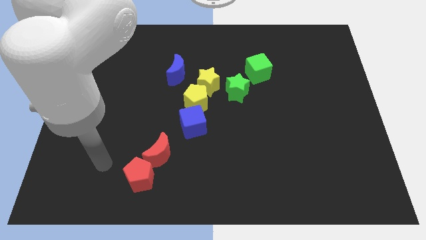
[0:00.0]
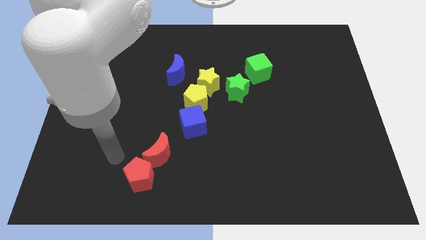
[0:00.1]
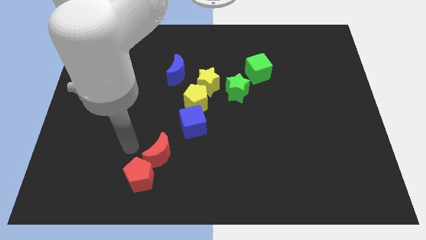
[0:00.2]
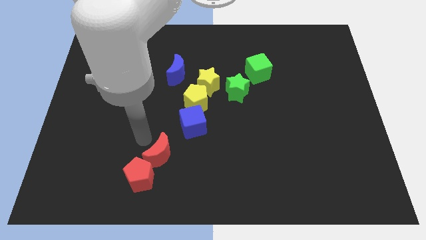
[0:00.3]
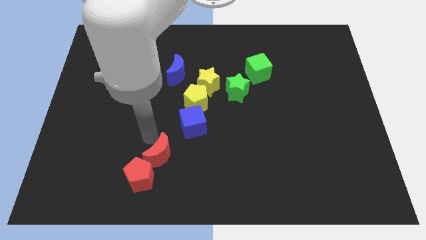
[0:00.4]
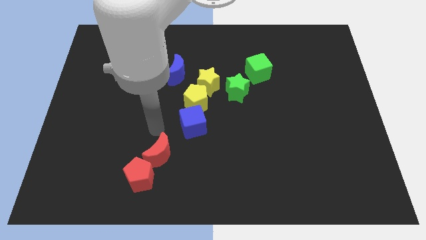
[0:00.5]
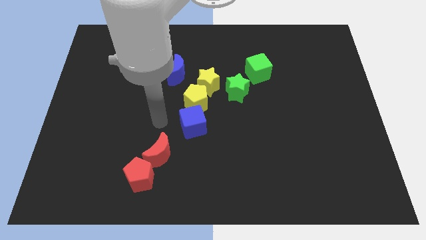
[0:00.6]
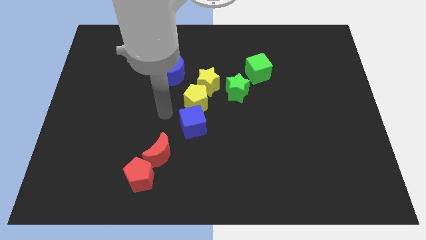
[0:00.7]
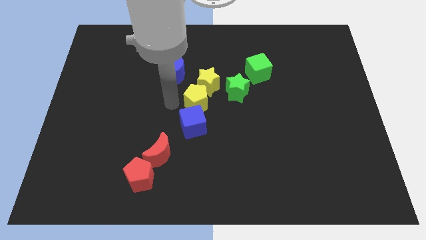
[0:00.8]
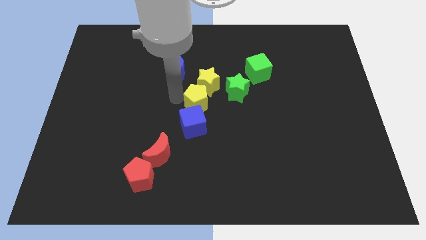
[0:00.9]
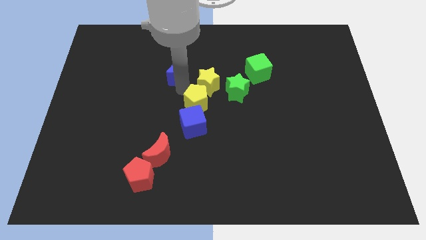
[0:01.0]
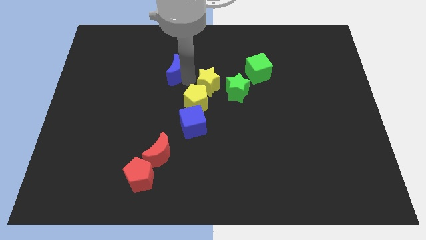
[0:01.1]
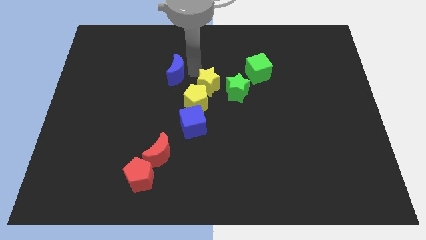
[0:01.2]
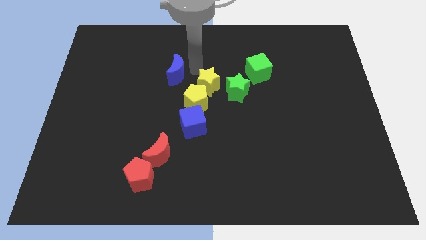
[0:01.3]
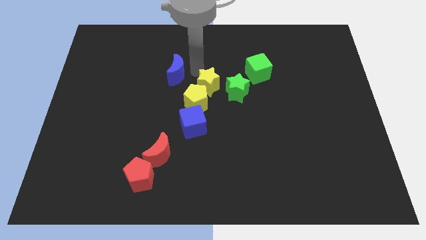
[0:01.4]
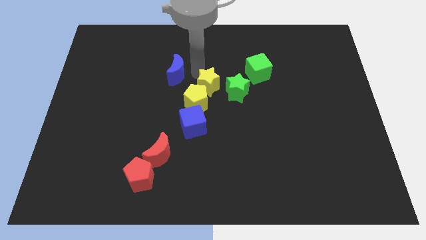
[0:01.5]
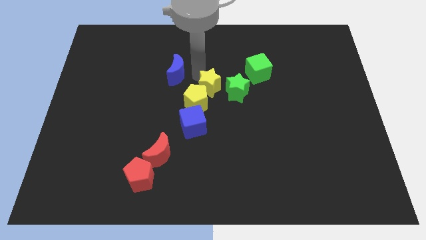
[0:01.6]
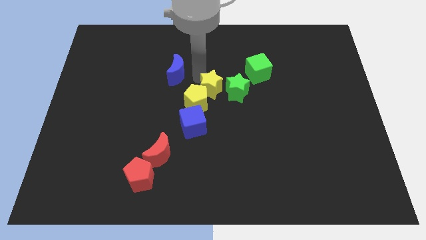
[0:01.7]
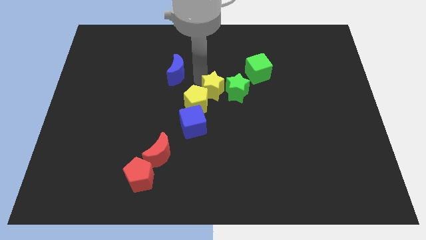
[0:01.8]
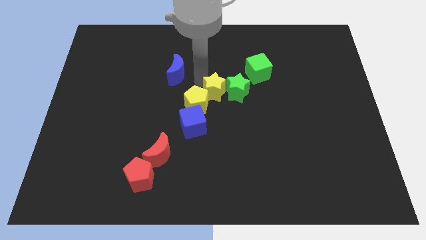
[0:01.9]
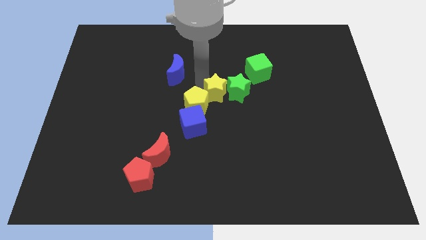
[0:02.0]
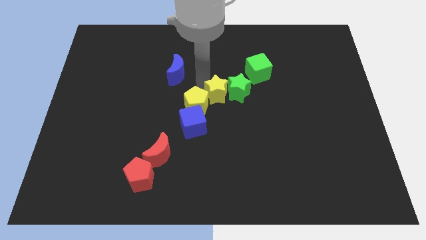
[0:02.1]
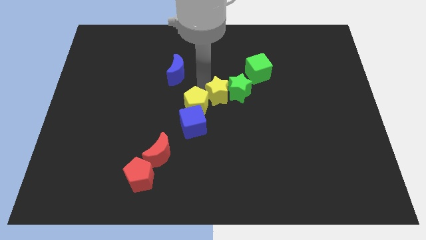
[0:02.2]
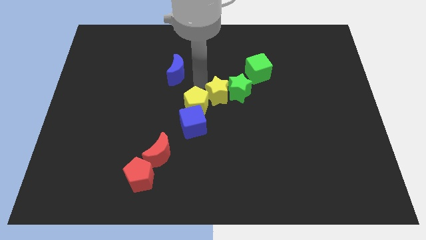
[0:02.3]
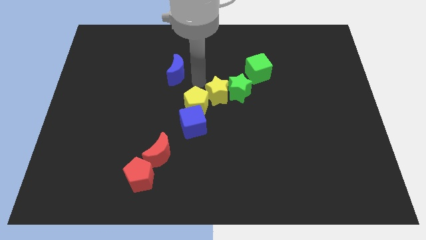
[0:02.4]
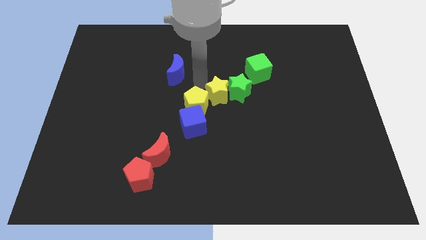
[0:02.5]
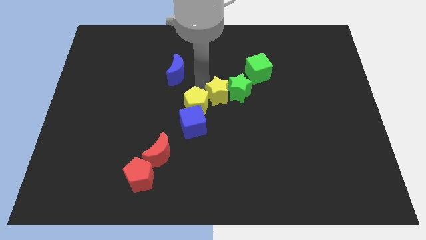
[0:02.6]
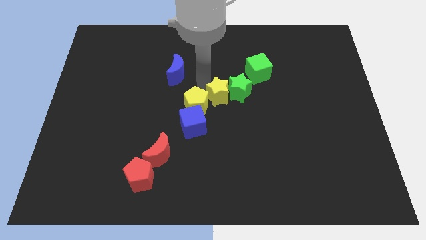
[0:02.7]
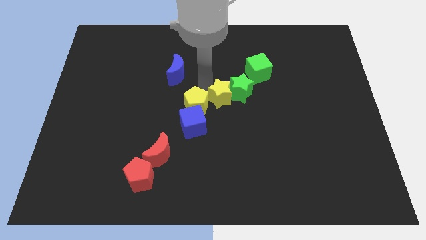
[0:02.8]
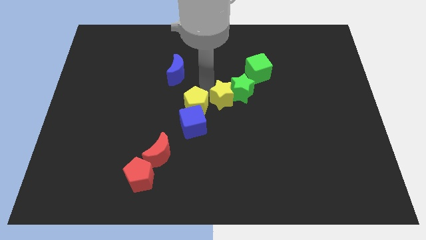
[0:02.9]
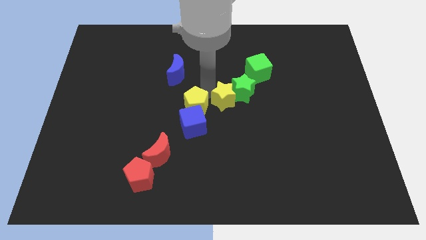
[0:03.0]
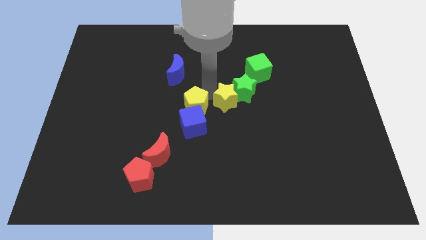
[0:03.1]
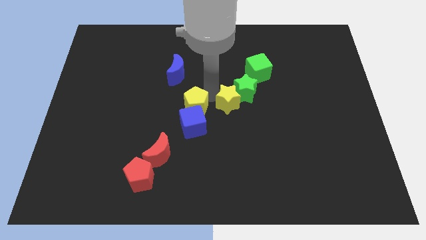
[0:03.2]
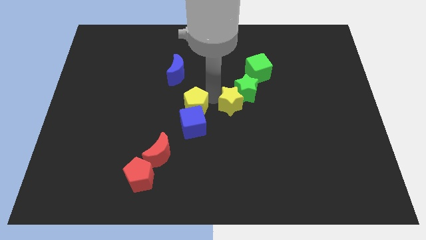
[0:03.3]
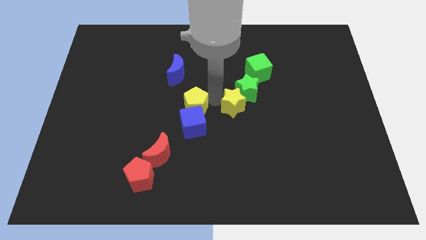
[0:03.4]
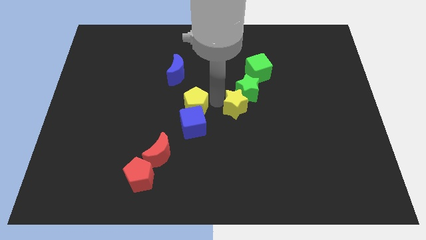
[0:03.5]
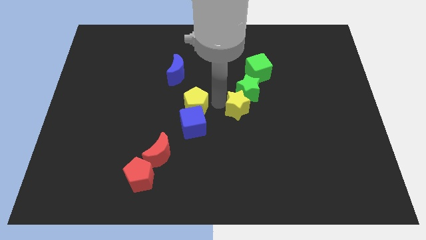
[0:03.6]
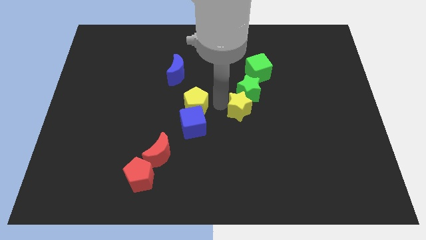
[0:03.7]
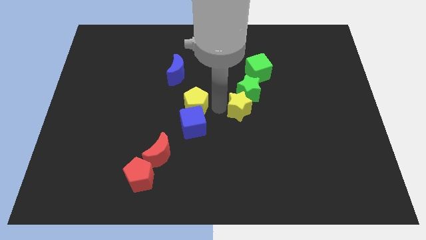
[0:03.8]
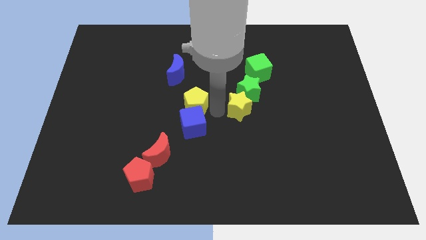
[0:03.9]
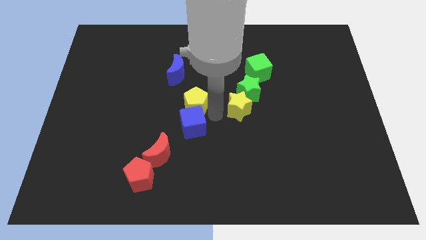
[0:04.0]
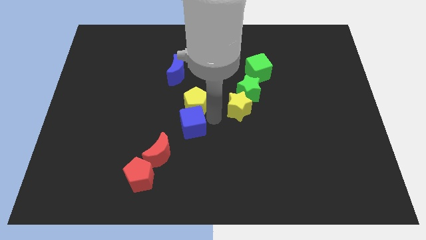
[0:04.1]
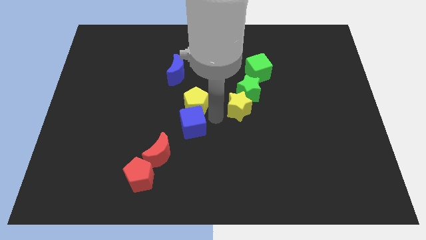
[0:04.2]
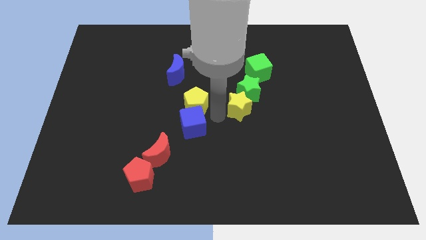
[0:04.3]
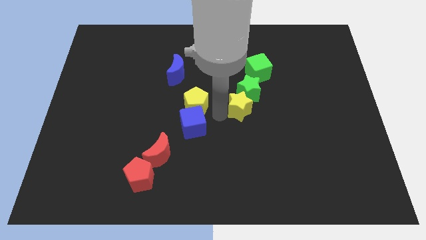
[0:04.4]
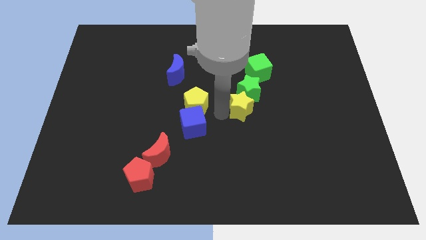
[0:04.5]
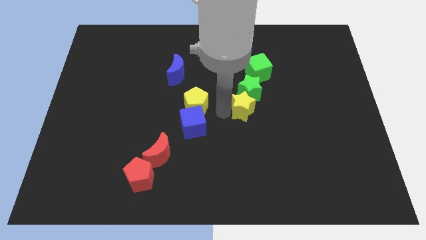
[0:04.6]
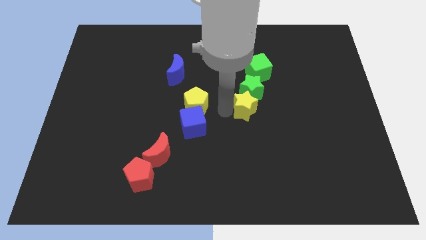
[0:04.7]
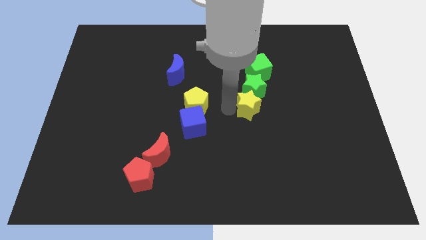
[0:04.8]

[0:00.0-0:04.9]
move the yellow star to the right a little

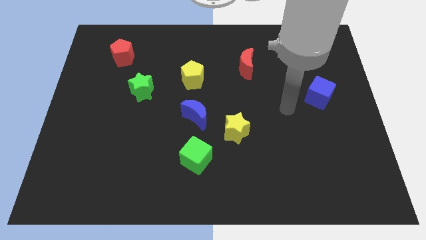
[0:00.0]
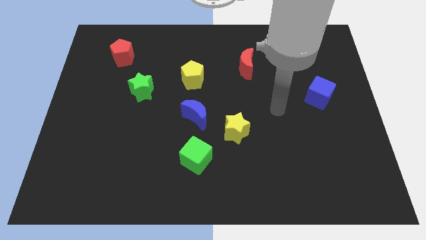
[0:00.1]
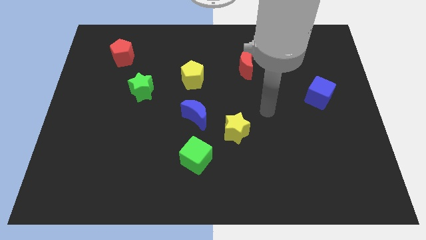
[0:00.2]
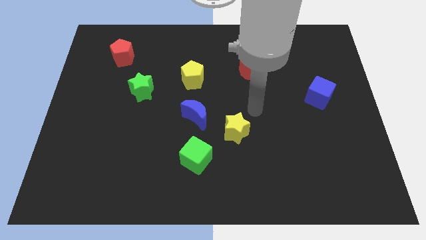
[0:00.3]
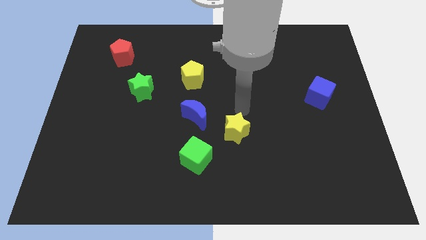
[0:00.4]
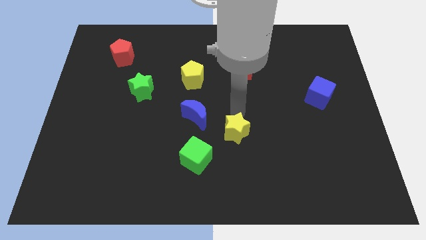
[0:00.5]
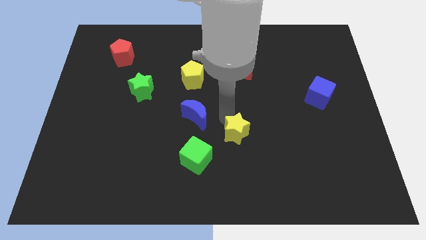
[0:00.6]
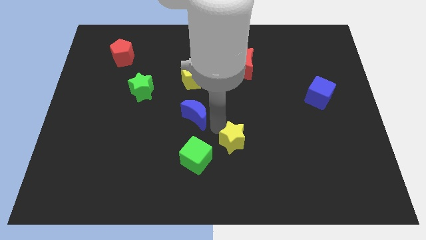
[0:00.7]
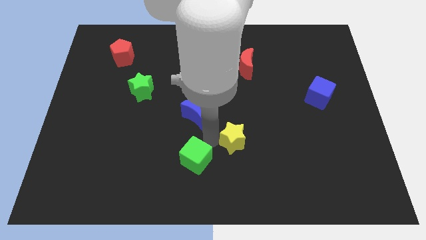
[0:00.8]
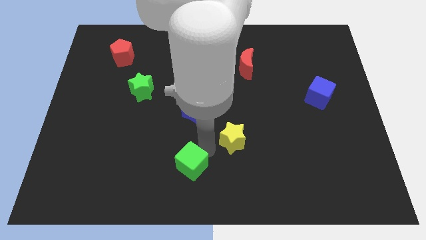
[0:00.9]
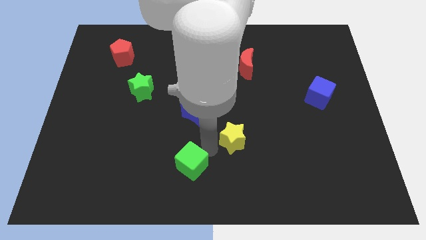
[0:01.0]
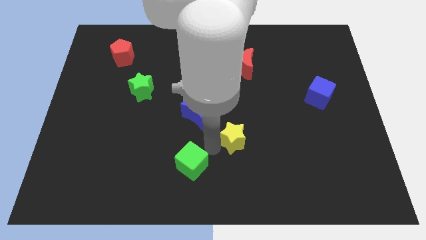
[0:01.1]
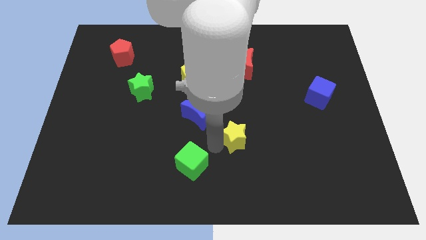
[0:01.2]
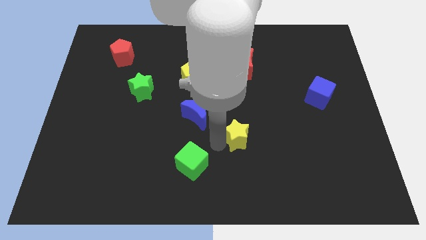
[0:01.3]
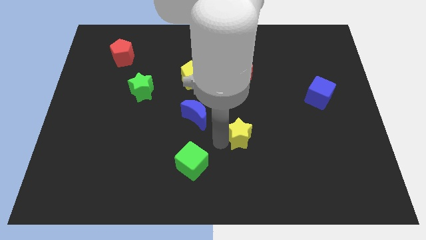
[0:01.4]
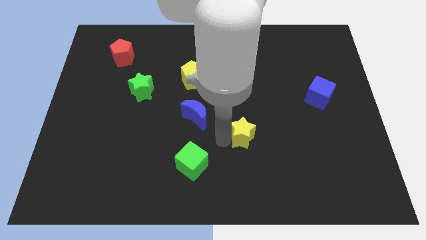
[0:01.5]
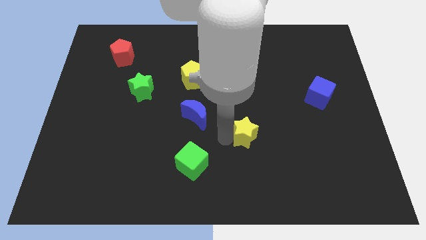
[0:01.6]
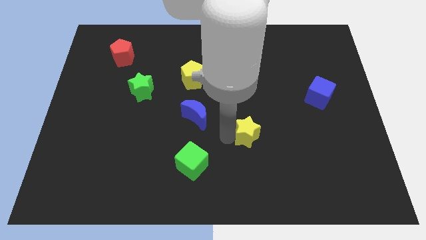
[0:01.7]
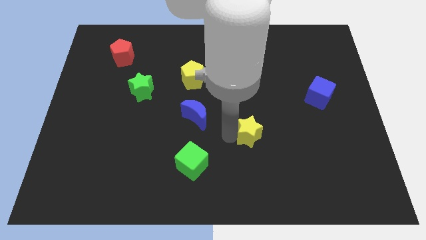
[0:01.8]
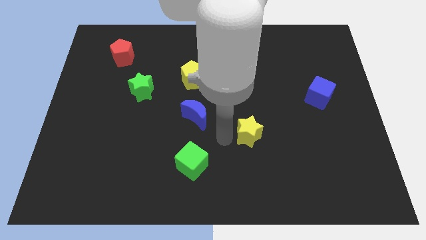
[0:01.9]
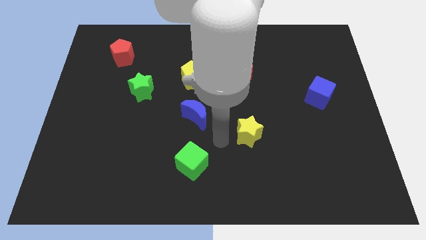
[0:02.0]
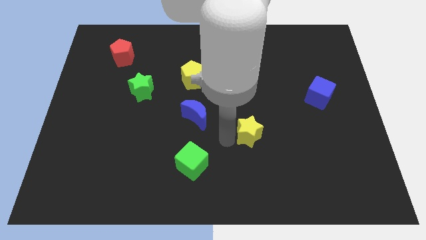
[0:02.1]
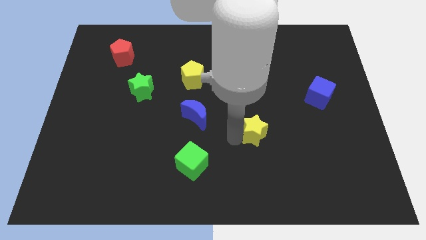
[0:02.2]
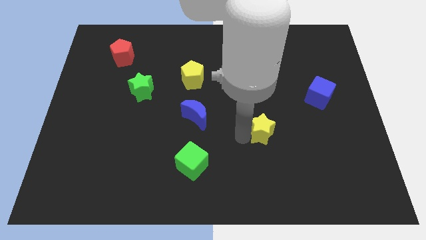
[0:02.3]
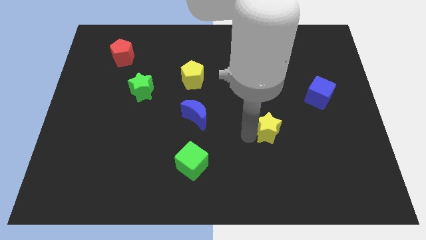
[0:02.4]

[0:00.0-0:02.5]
push the yellow star a bit to the right

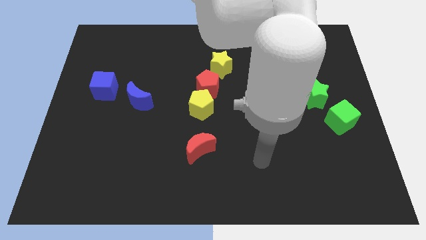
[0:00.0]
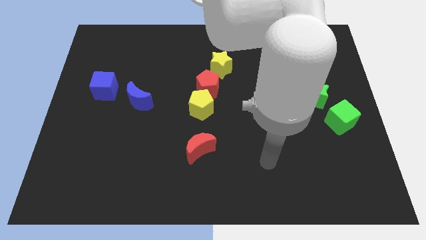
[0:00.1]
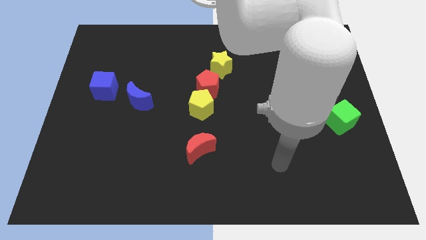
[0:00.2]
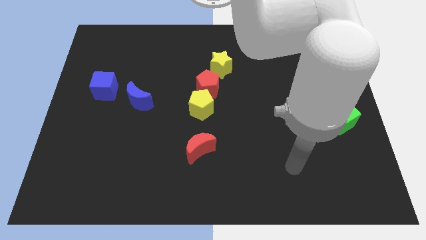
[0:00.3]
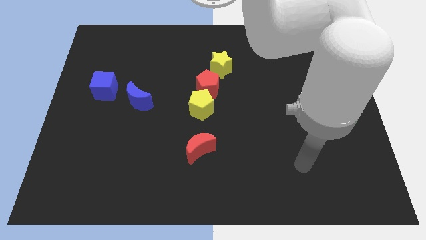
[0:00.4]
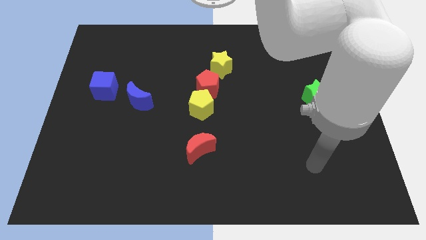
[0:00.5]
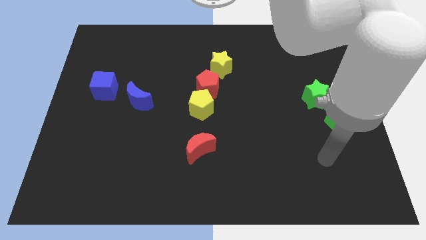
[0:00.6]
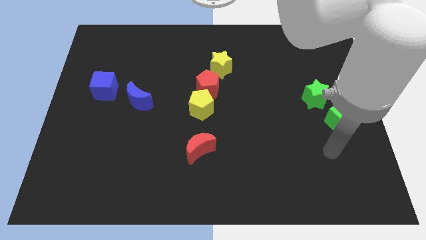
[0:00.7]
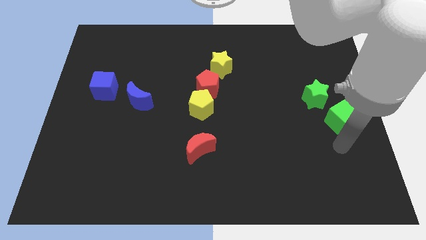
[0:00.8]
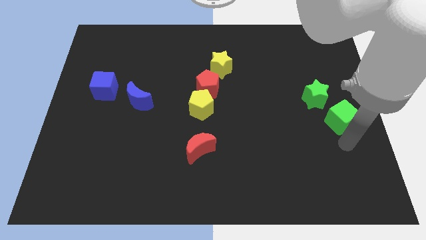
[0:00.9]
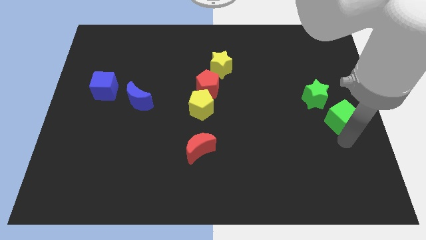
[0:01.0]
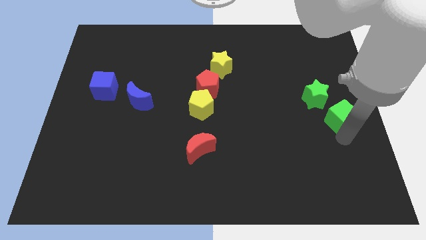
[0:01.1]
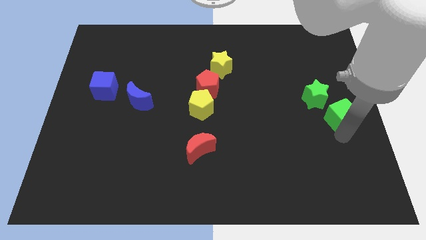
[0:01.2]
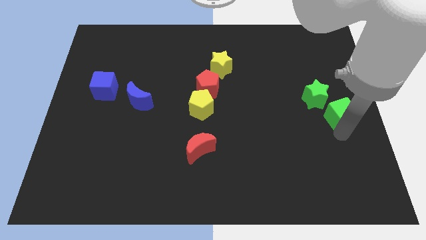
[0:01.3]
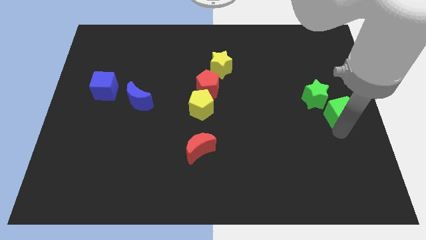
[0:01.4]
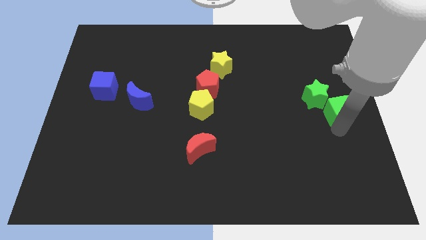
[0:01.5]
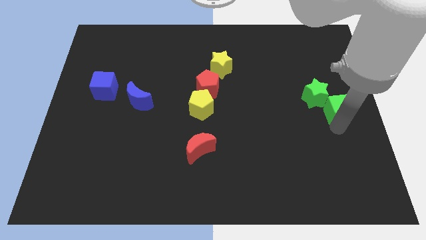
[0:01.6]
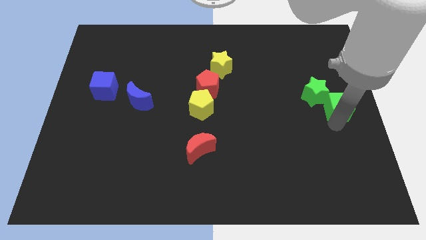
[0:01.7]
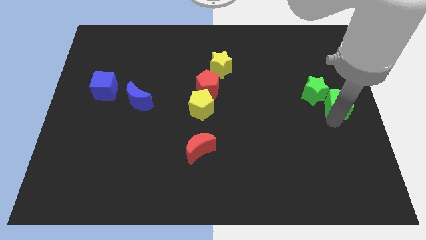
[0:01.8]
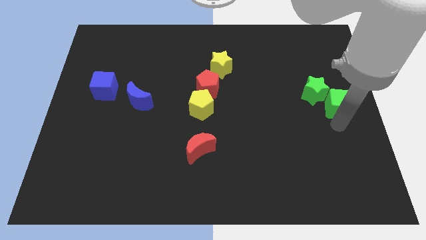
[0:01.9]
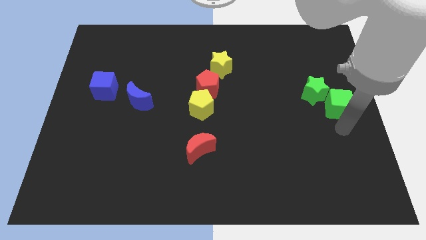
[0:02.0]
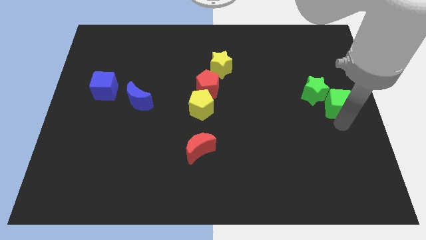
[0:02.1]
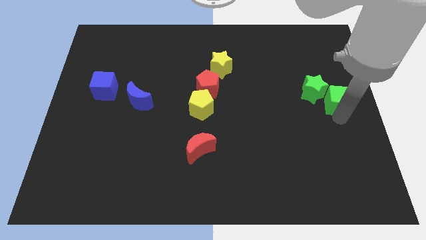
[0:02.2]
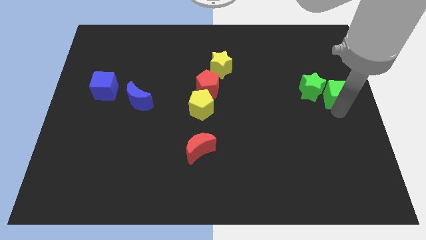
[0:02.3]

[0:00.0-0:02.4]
move the green cube up a little
